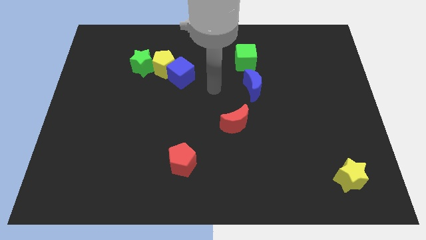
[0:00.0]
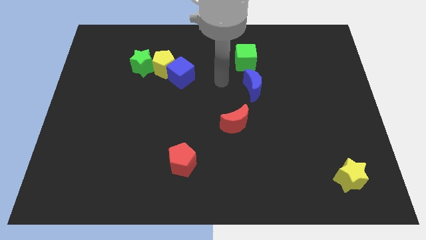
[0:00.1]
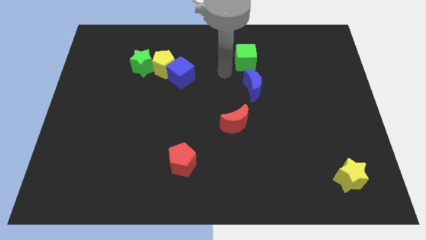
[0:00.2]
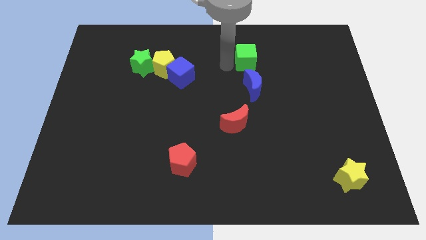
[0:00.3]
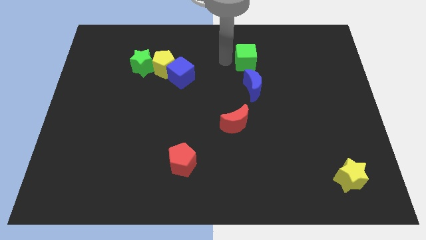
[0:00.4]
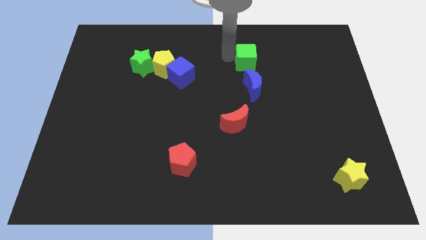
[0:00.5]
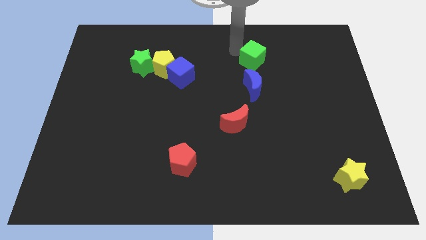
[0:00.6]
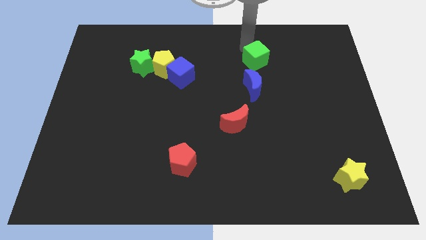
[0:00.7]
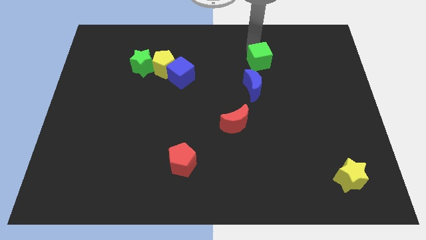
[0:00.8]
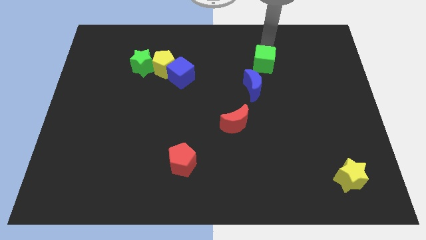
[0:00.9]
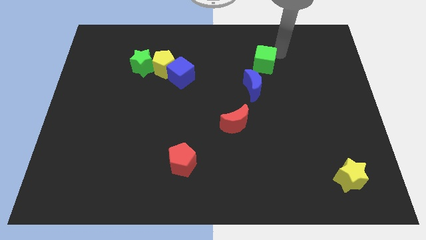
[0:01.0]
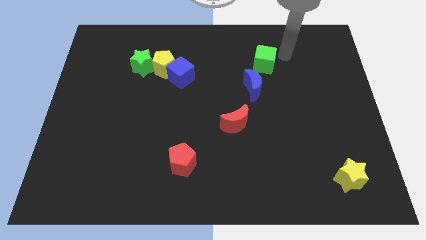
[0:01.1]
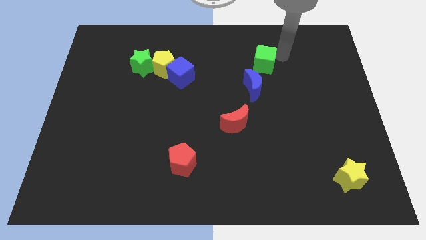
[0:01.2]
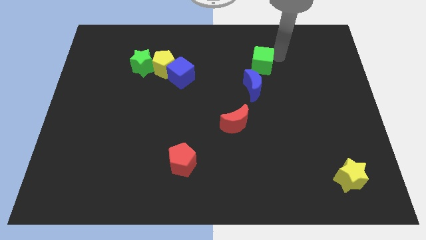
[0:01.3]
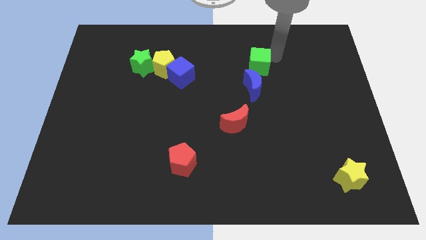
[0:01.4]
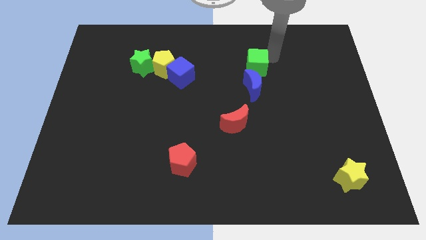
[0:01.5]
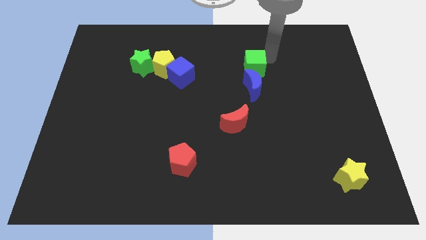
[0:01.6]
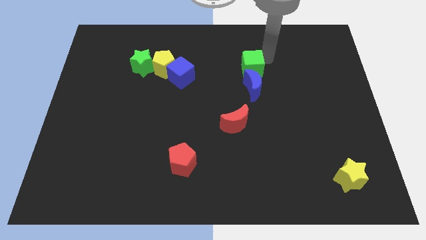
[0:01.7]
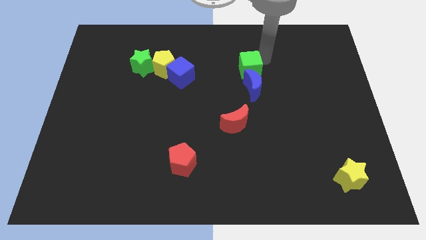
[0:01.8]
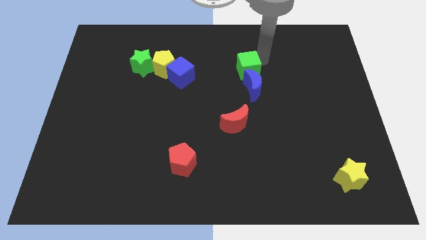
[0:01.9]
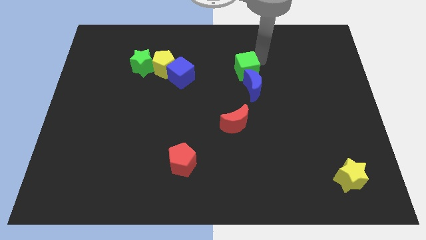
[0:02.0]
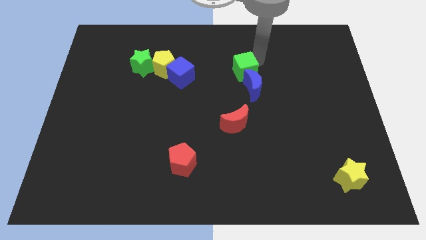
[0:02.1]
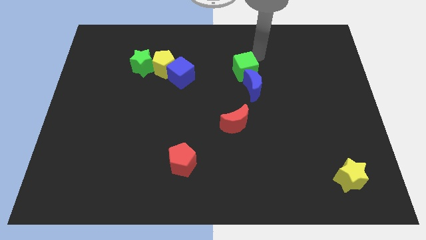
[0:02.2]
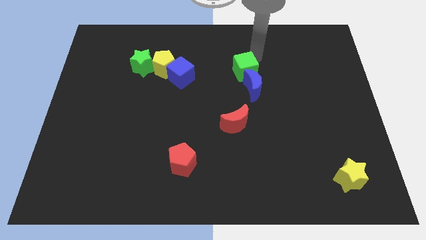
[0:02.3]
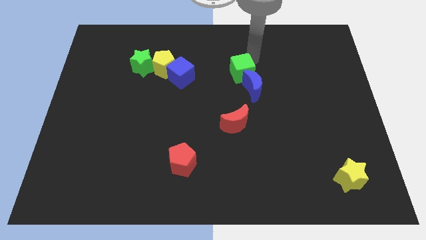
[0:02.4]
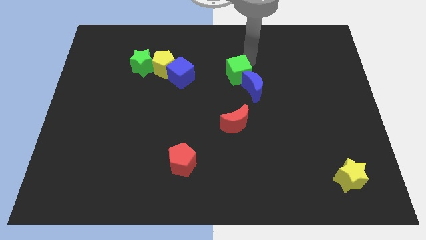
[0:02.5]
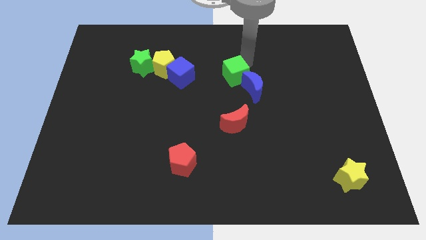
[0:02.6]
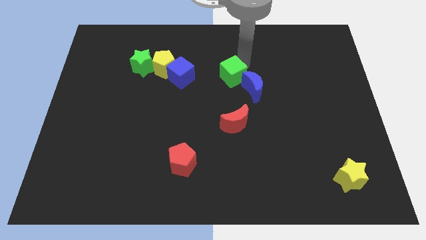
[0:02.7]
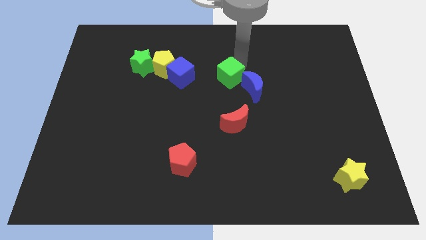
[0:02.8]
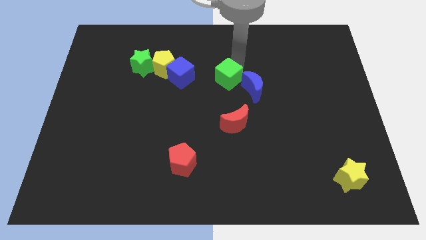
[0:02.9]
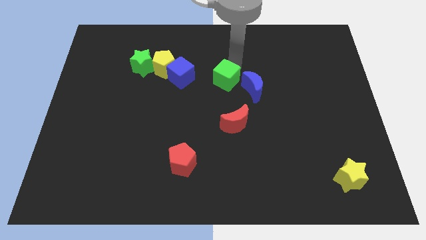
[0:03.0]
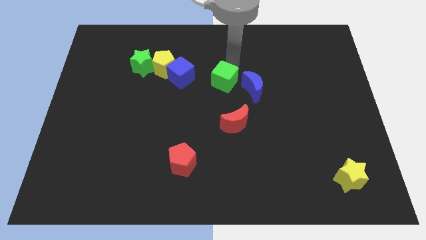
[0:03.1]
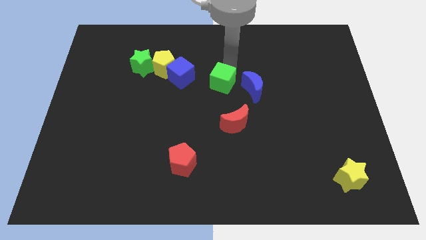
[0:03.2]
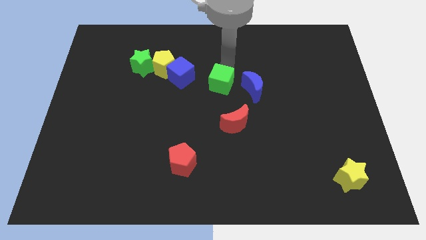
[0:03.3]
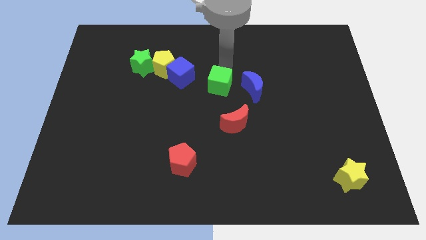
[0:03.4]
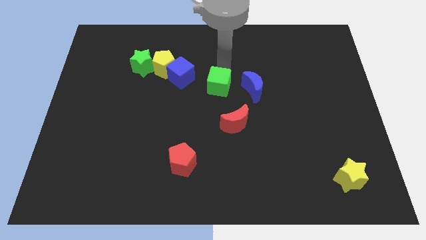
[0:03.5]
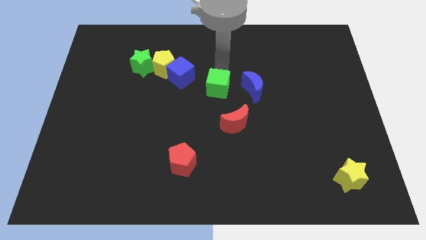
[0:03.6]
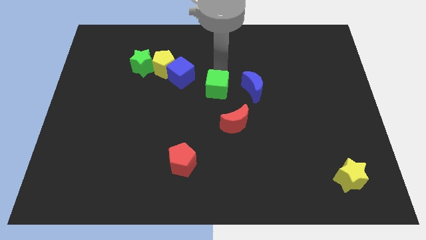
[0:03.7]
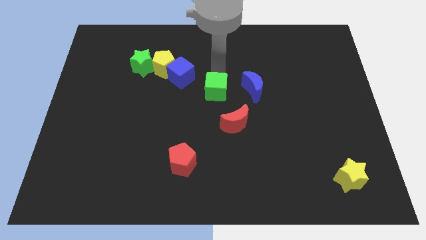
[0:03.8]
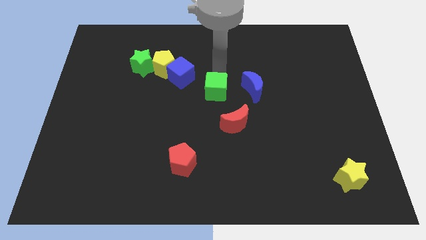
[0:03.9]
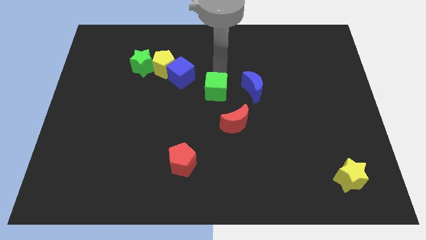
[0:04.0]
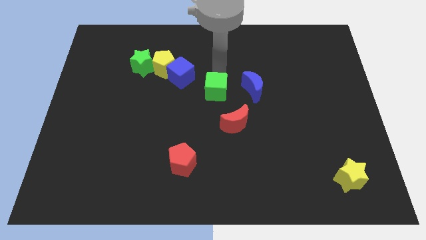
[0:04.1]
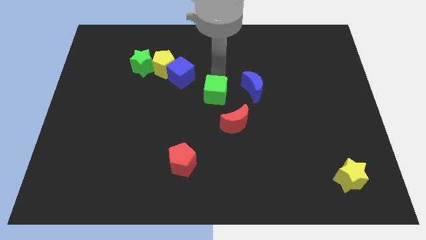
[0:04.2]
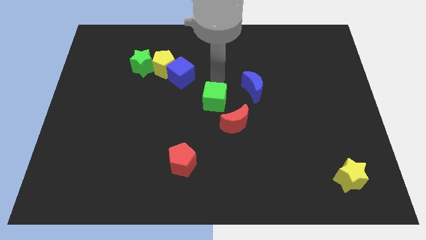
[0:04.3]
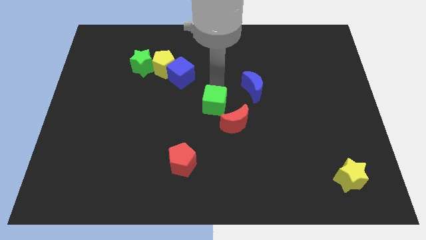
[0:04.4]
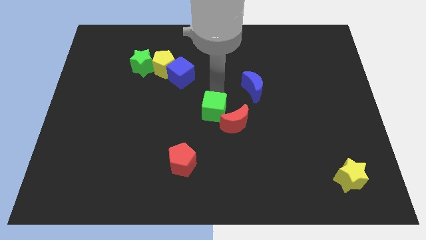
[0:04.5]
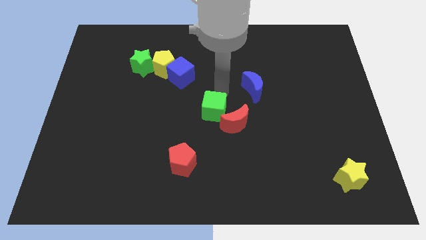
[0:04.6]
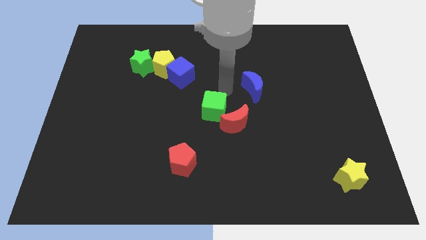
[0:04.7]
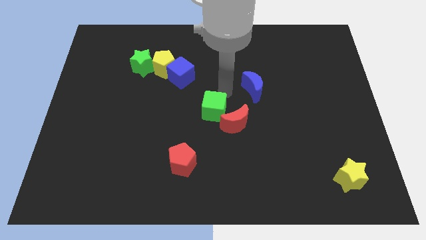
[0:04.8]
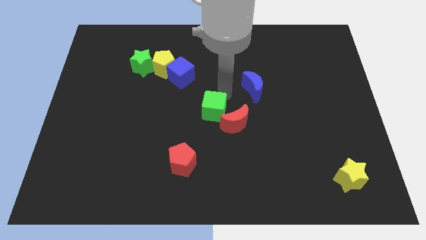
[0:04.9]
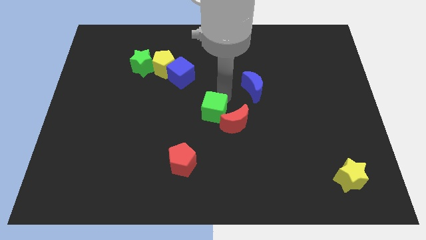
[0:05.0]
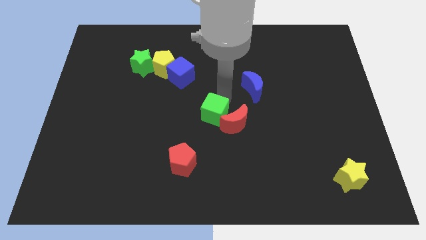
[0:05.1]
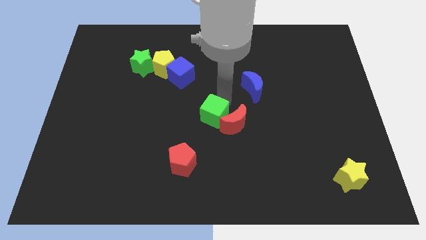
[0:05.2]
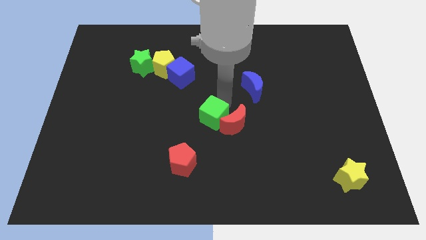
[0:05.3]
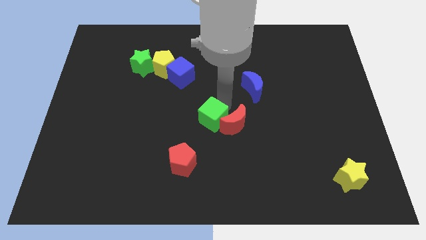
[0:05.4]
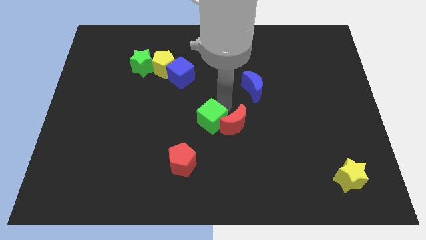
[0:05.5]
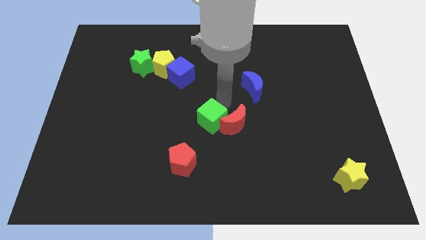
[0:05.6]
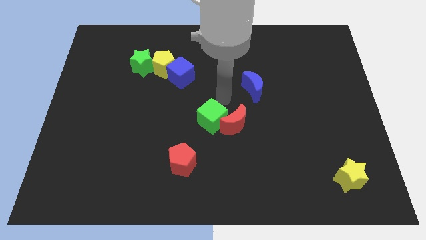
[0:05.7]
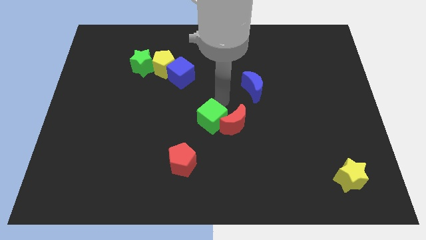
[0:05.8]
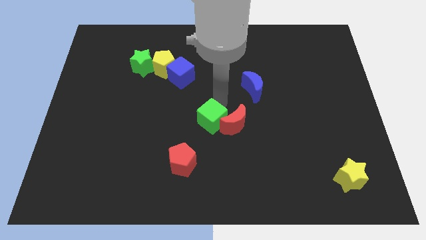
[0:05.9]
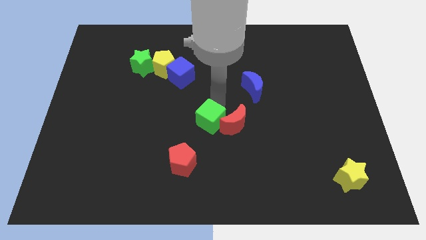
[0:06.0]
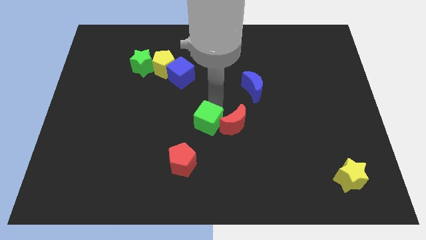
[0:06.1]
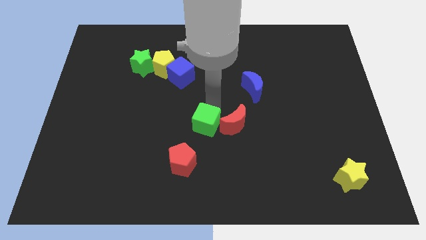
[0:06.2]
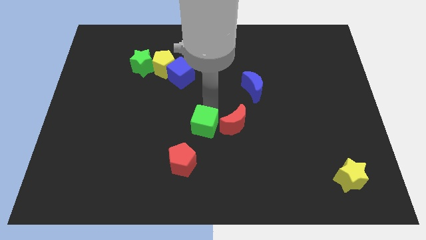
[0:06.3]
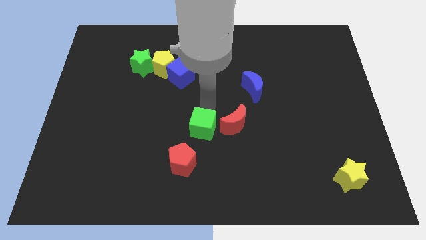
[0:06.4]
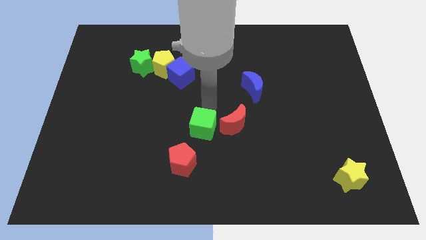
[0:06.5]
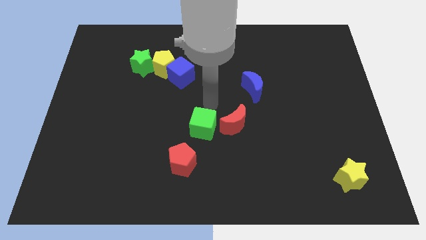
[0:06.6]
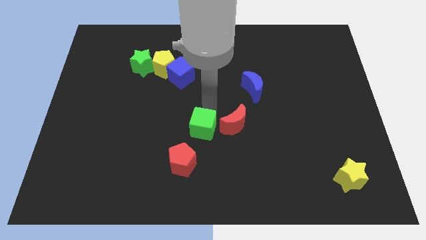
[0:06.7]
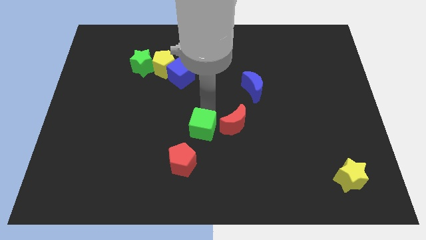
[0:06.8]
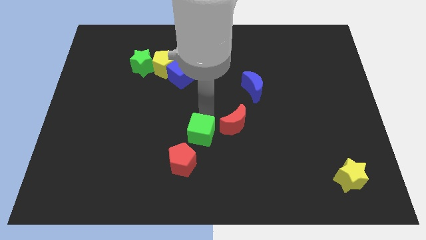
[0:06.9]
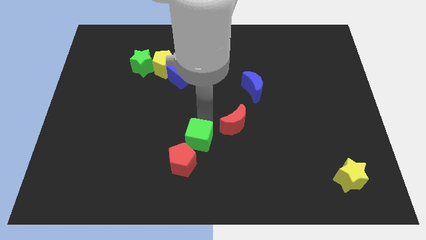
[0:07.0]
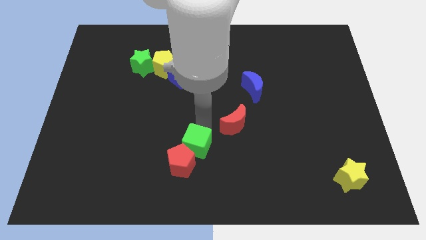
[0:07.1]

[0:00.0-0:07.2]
slide the green cube next to the red pentagon

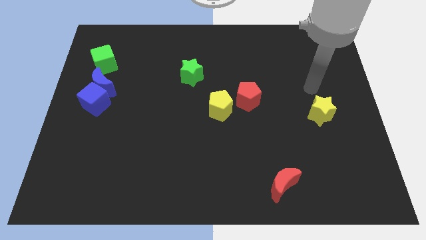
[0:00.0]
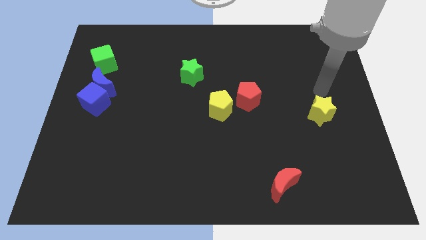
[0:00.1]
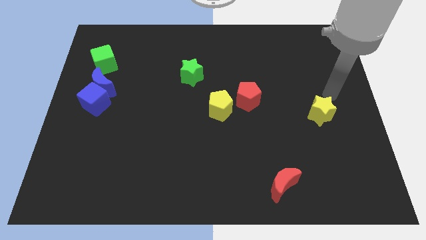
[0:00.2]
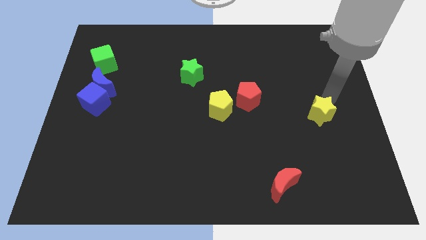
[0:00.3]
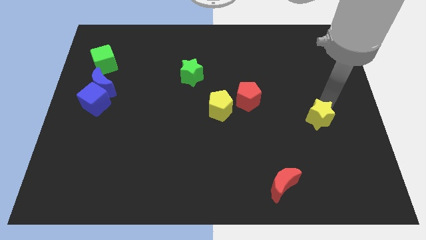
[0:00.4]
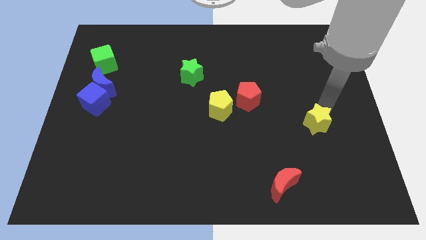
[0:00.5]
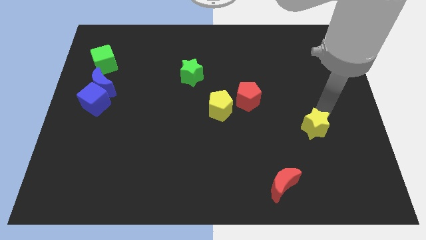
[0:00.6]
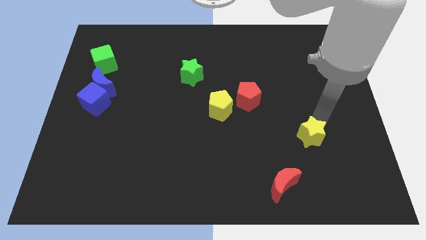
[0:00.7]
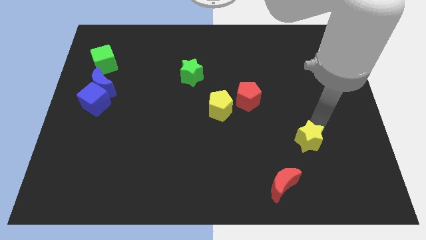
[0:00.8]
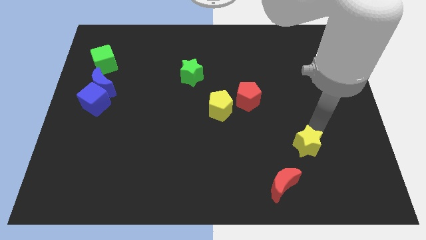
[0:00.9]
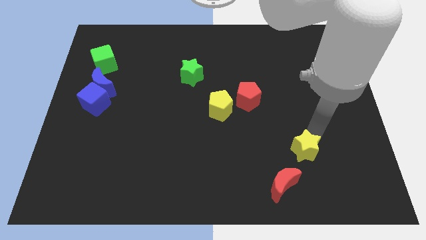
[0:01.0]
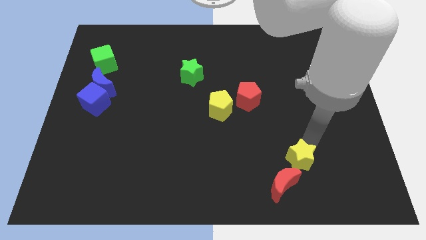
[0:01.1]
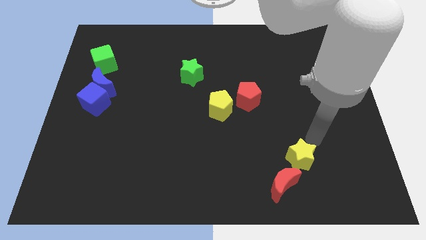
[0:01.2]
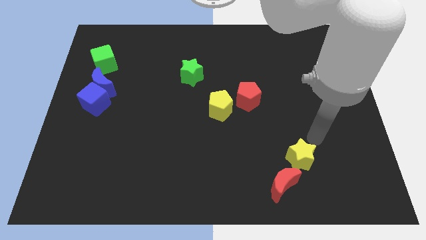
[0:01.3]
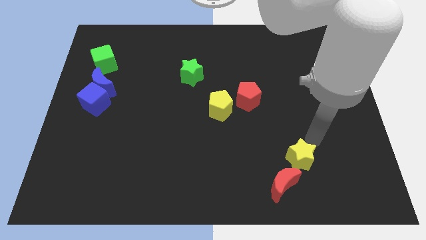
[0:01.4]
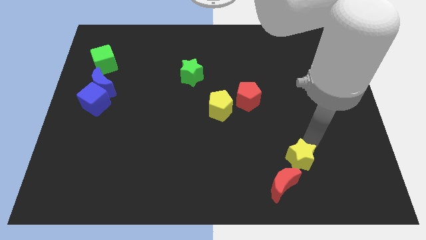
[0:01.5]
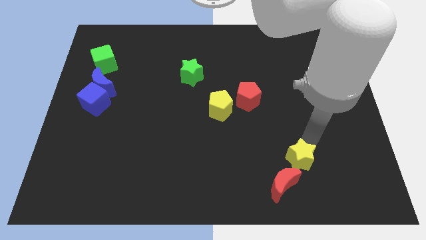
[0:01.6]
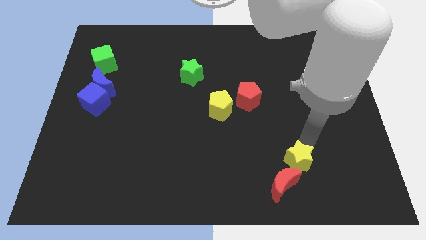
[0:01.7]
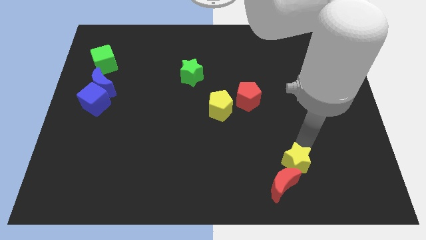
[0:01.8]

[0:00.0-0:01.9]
slide the yellow star next to the red moon
